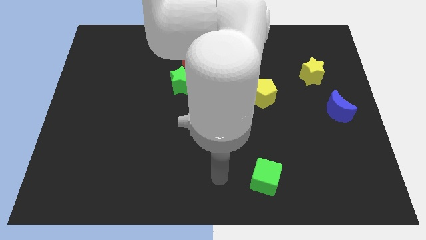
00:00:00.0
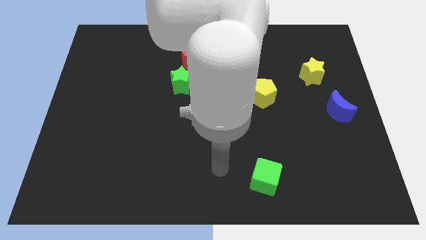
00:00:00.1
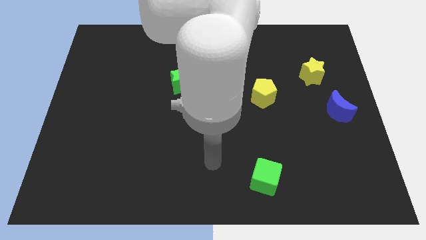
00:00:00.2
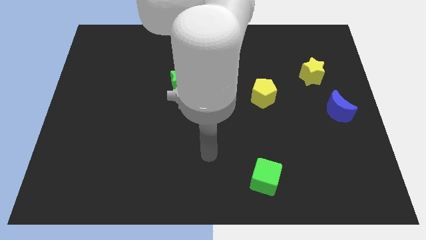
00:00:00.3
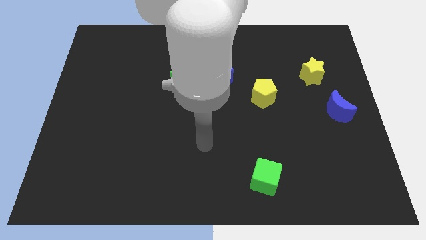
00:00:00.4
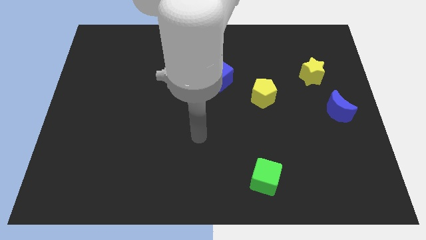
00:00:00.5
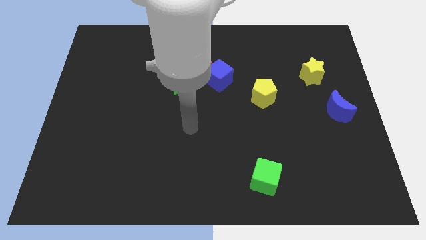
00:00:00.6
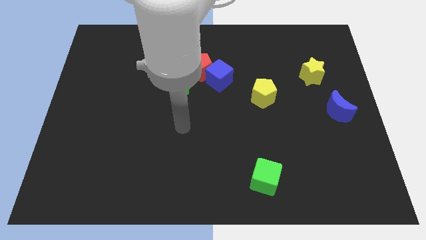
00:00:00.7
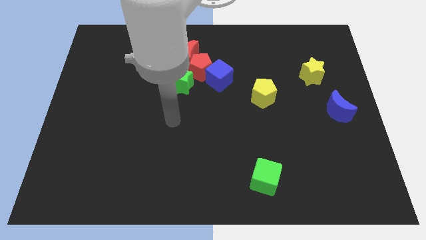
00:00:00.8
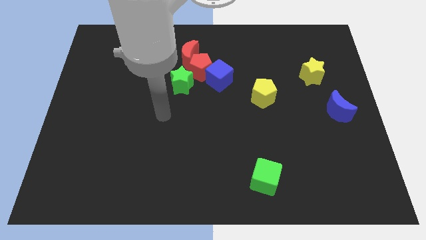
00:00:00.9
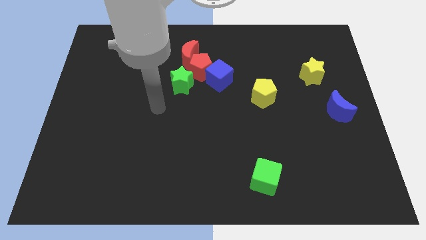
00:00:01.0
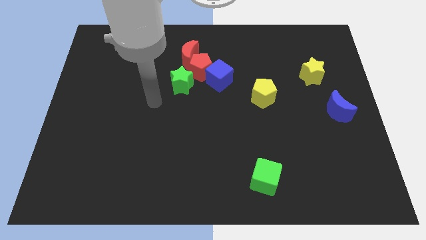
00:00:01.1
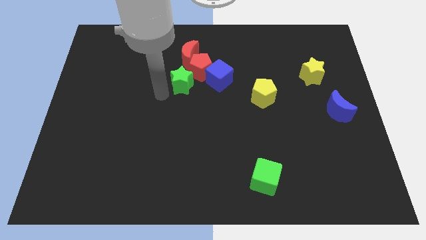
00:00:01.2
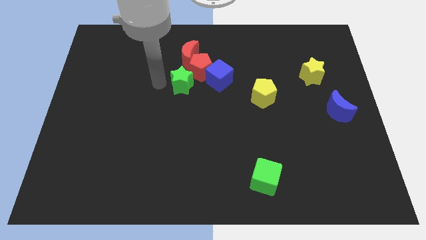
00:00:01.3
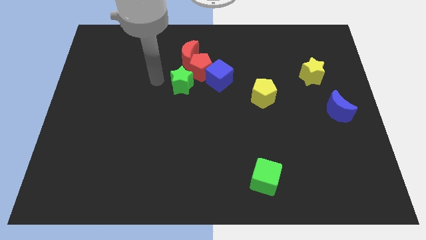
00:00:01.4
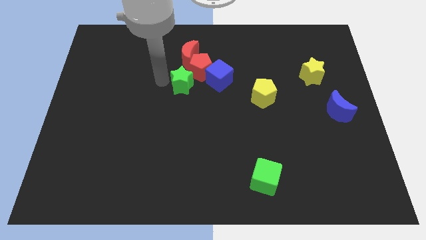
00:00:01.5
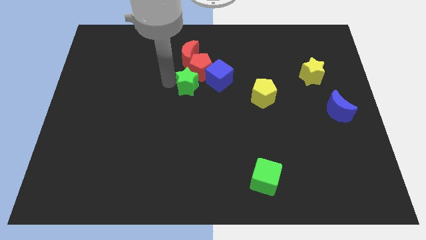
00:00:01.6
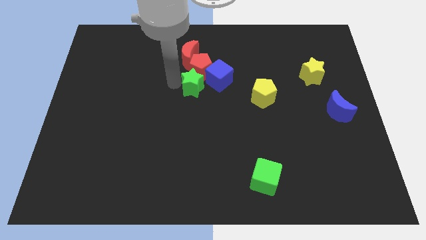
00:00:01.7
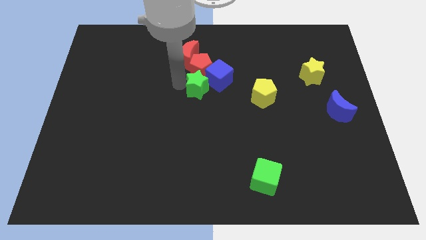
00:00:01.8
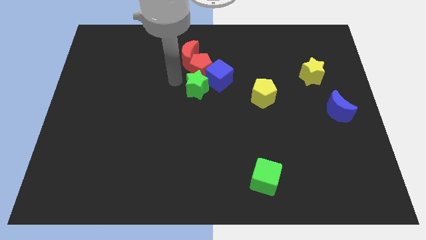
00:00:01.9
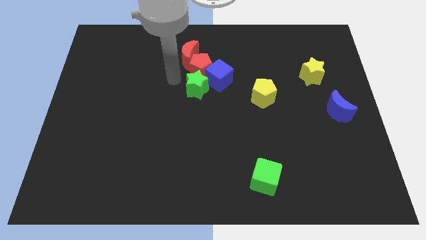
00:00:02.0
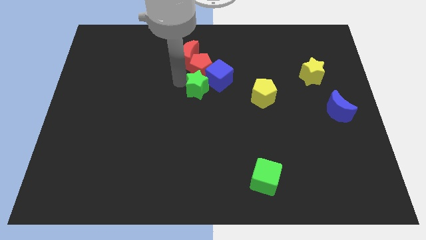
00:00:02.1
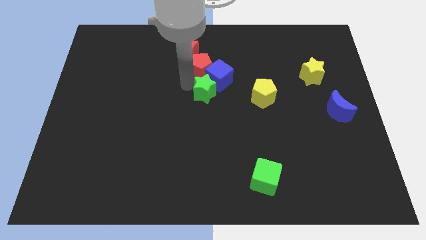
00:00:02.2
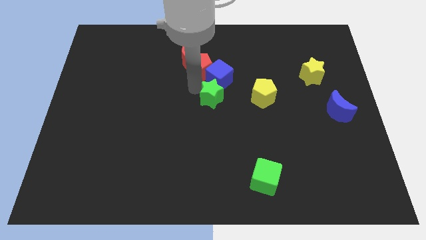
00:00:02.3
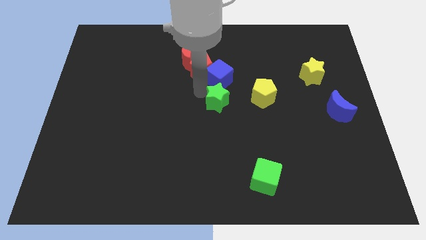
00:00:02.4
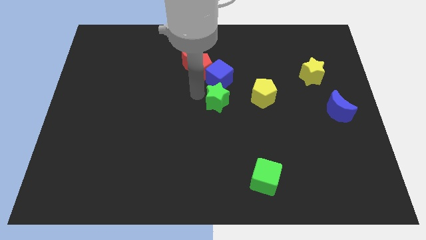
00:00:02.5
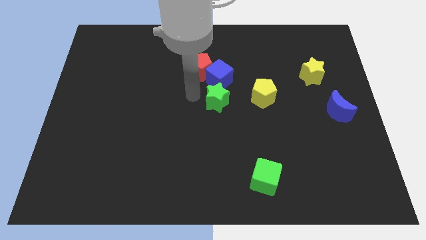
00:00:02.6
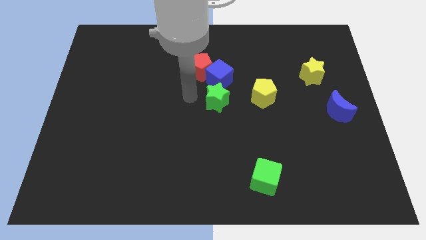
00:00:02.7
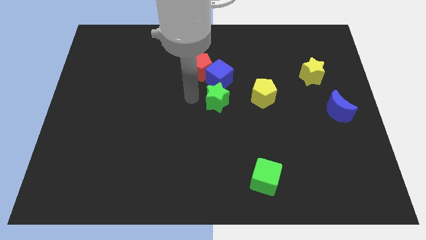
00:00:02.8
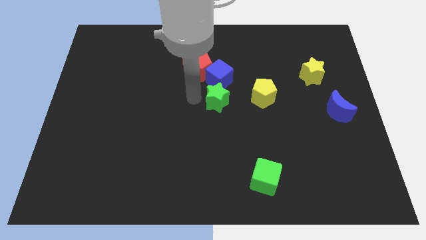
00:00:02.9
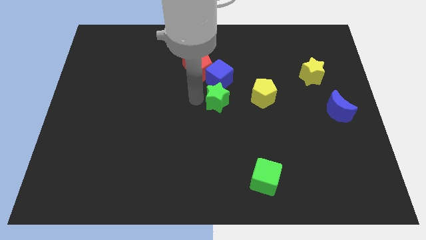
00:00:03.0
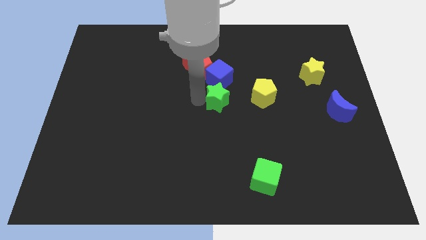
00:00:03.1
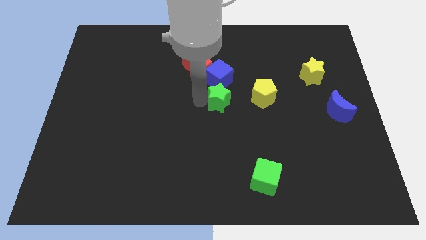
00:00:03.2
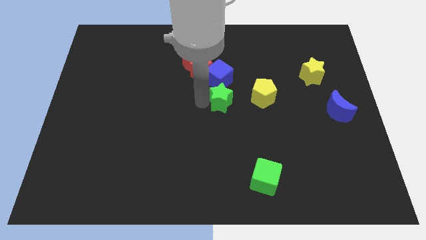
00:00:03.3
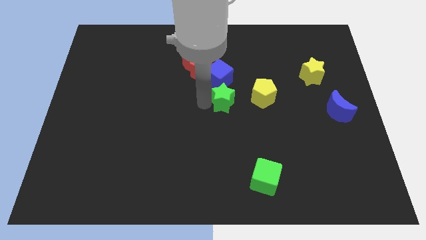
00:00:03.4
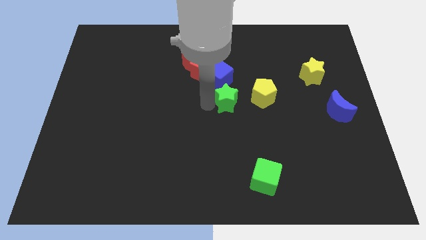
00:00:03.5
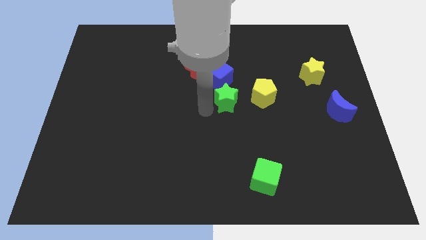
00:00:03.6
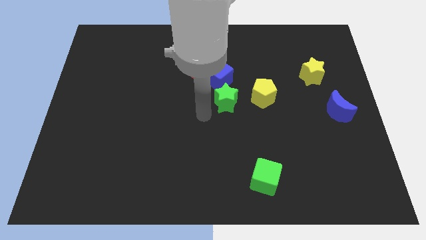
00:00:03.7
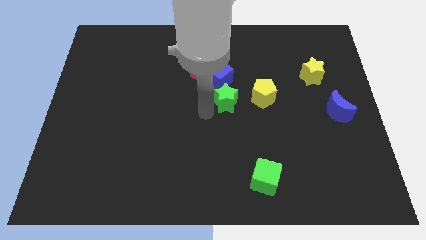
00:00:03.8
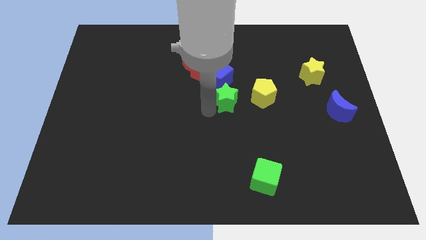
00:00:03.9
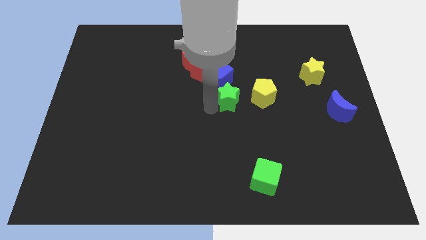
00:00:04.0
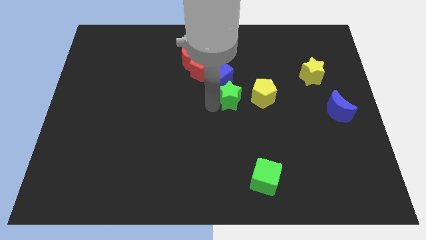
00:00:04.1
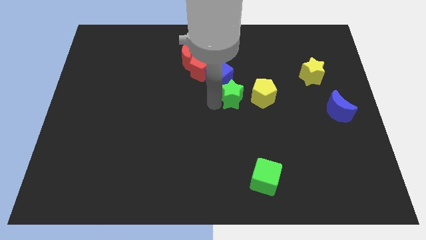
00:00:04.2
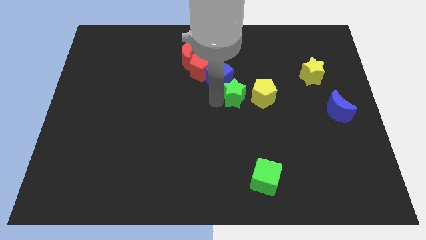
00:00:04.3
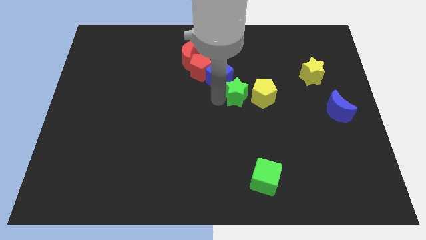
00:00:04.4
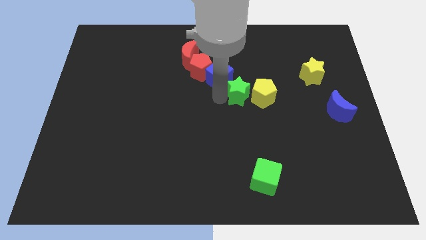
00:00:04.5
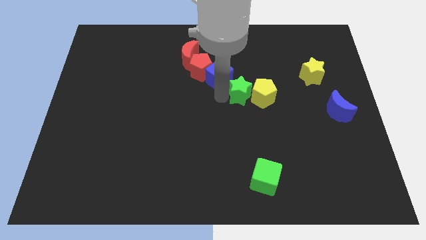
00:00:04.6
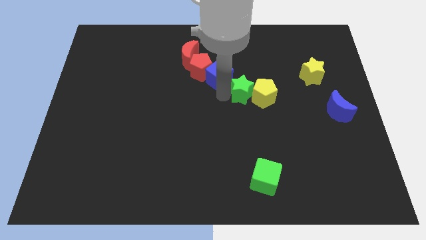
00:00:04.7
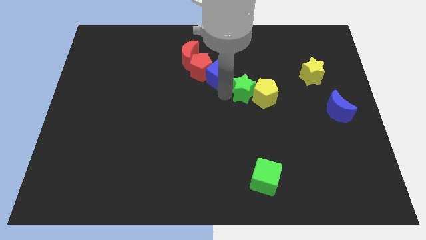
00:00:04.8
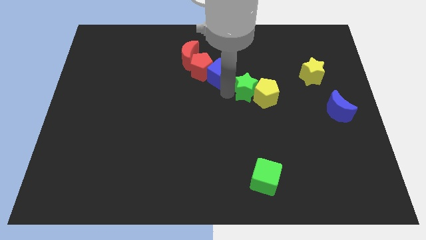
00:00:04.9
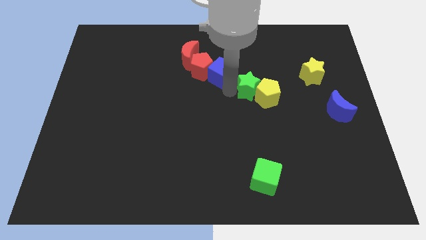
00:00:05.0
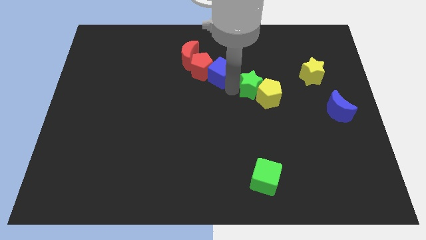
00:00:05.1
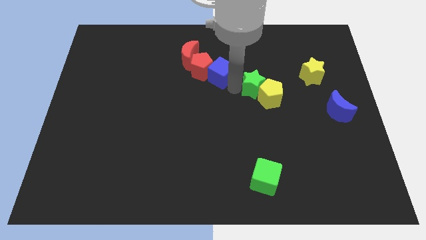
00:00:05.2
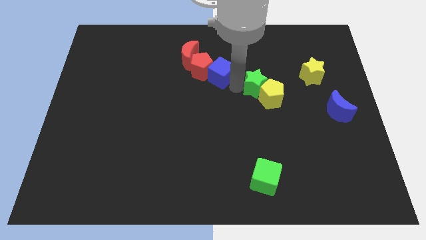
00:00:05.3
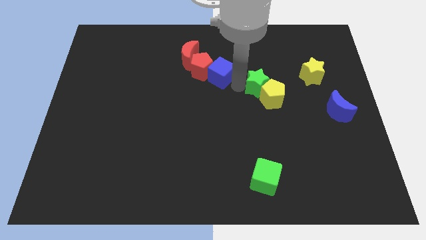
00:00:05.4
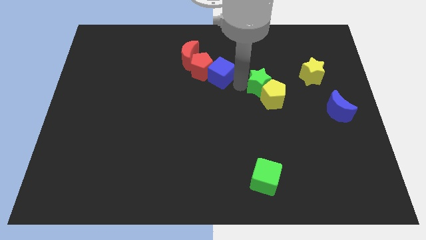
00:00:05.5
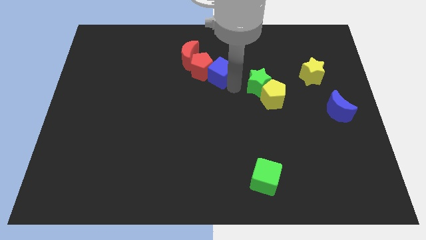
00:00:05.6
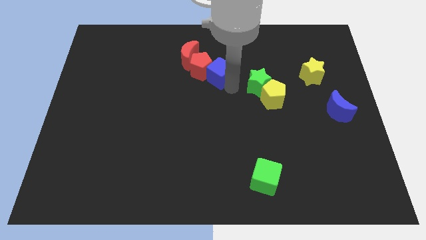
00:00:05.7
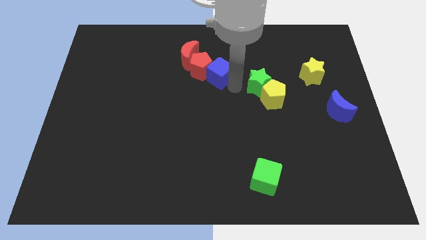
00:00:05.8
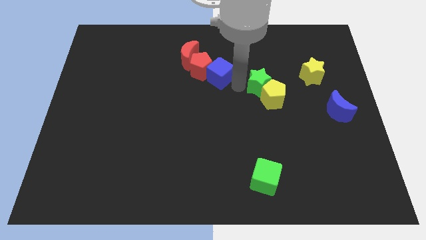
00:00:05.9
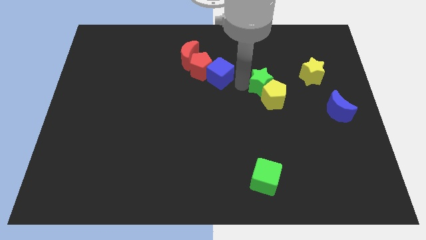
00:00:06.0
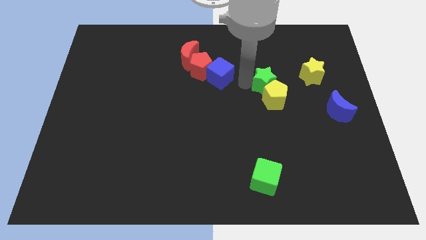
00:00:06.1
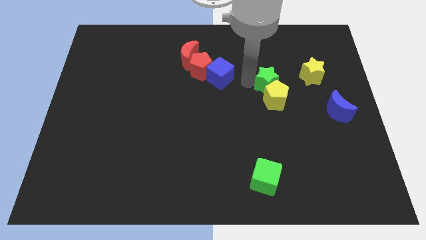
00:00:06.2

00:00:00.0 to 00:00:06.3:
put the green star to the top right of the yellow pentagon

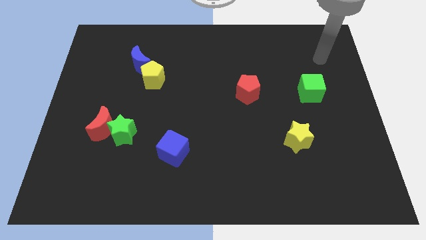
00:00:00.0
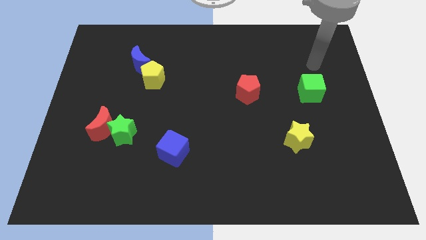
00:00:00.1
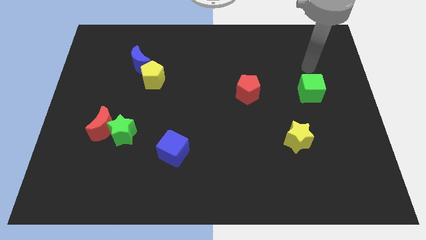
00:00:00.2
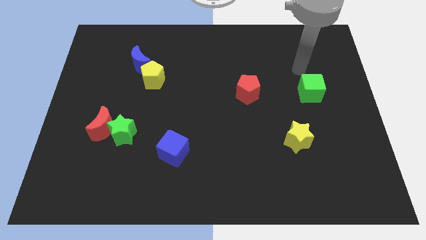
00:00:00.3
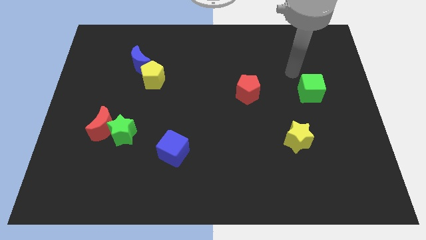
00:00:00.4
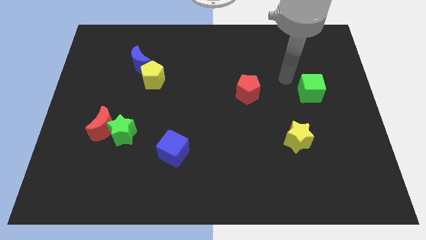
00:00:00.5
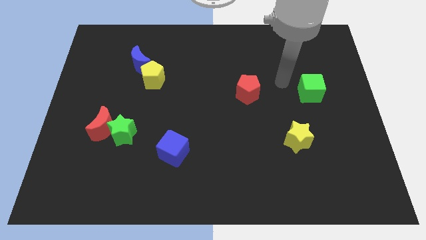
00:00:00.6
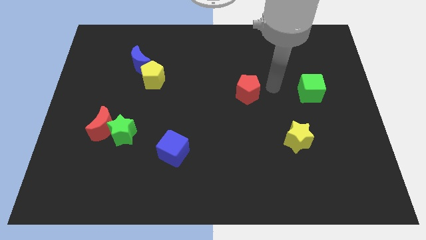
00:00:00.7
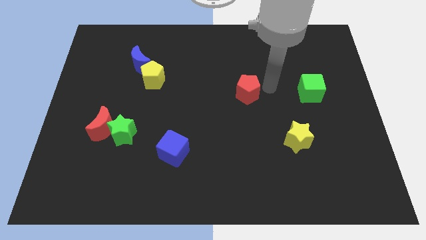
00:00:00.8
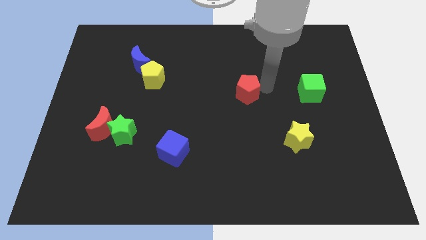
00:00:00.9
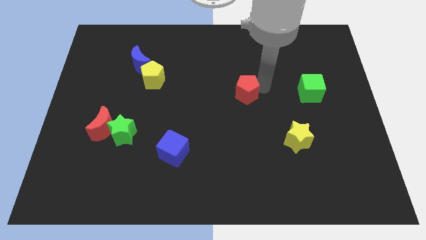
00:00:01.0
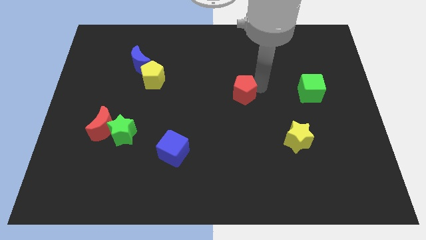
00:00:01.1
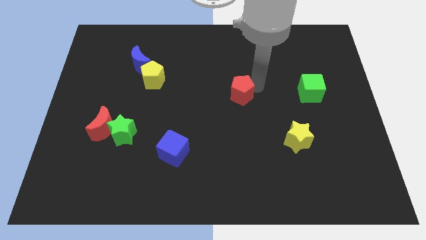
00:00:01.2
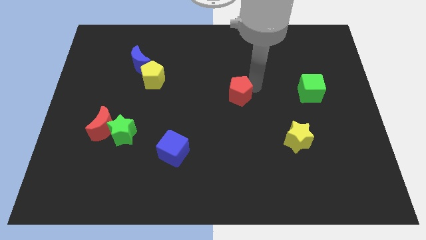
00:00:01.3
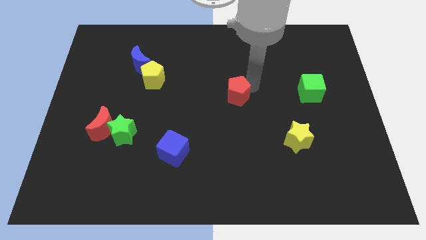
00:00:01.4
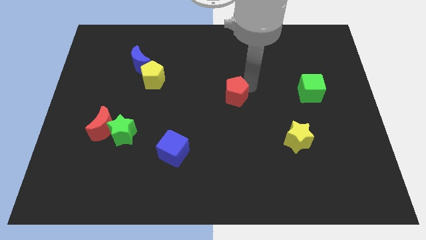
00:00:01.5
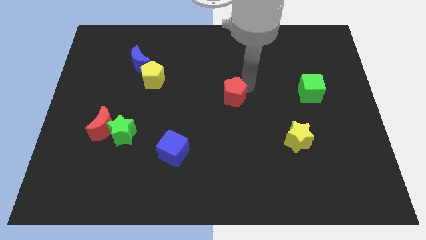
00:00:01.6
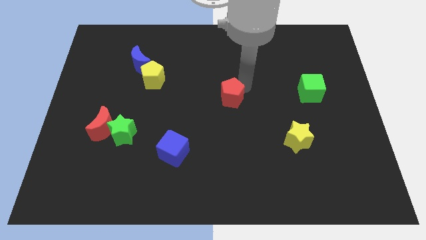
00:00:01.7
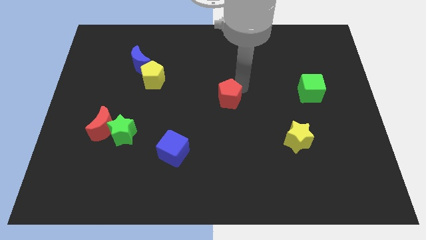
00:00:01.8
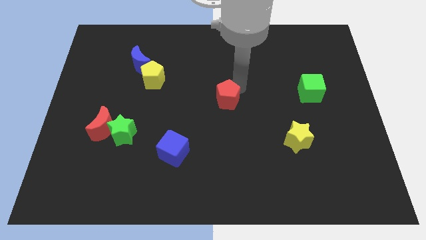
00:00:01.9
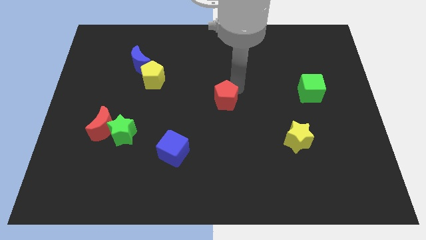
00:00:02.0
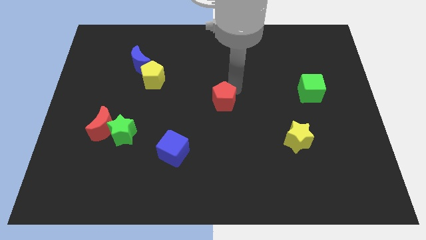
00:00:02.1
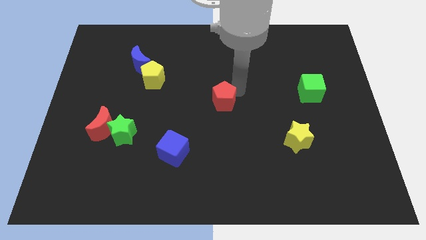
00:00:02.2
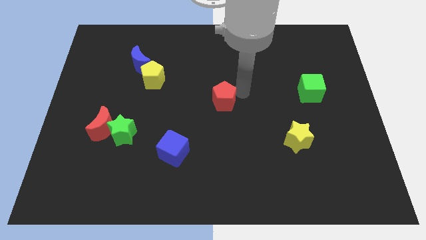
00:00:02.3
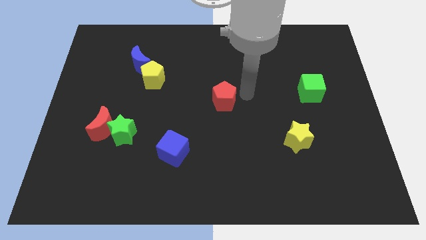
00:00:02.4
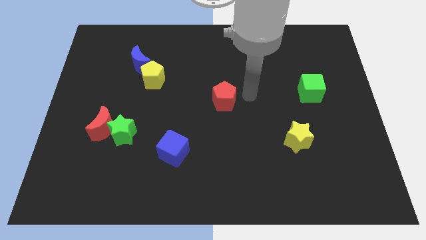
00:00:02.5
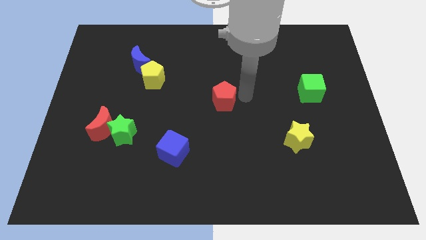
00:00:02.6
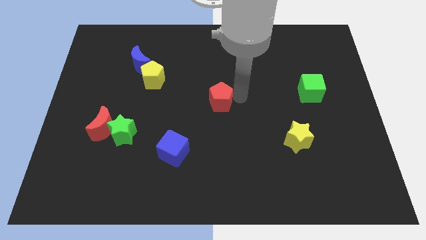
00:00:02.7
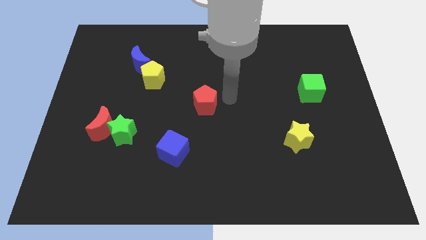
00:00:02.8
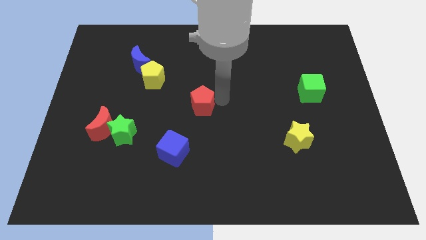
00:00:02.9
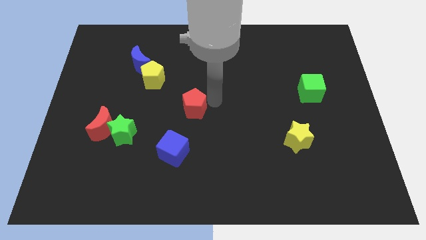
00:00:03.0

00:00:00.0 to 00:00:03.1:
slide the red pentagon above the blue cube
